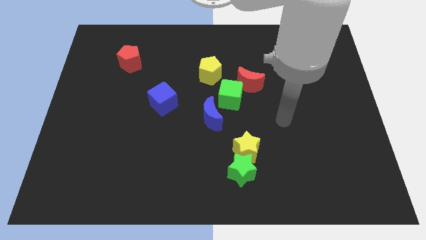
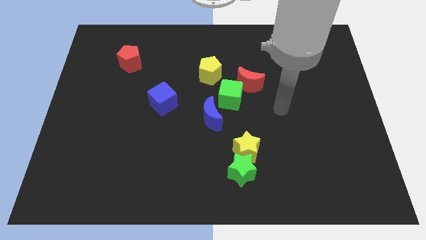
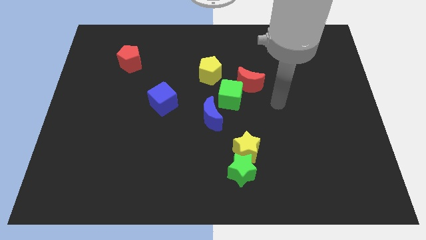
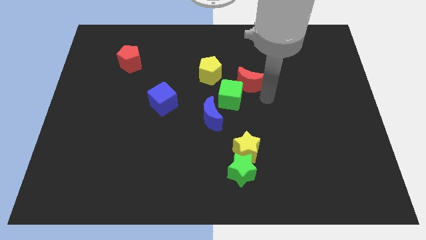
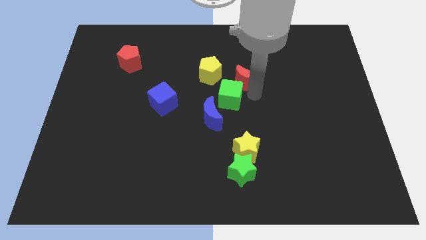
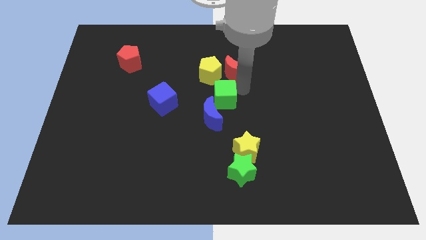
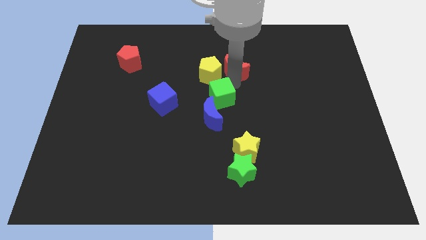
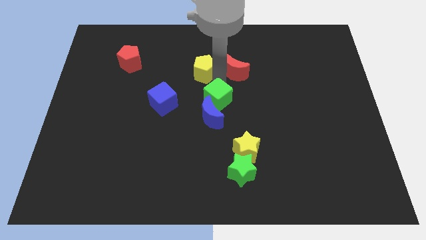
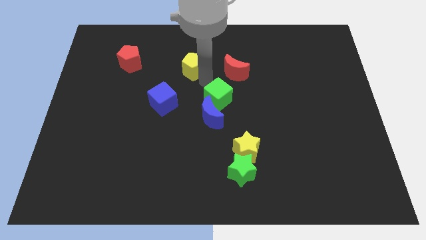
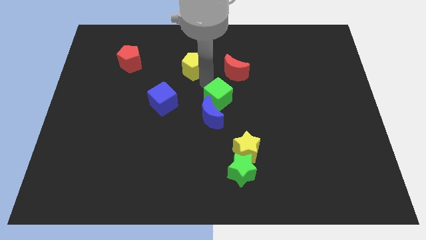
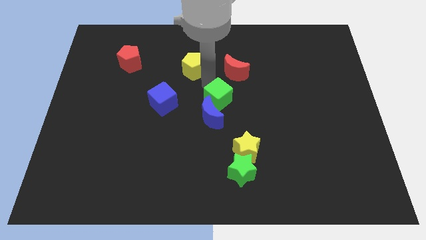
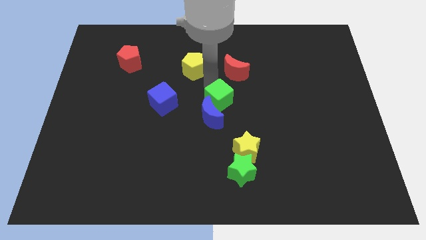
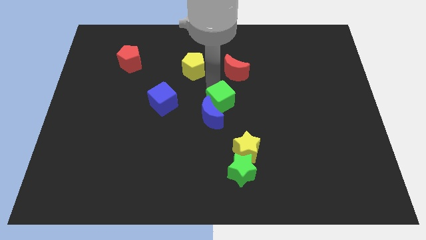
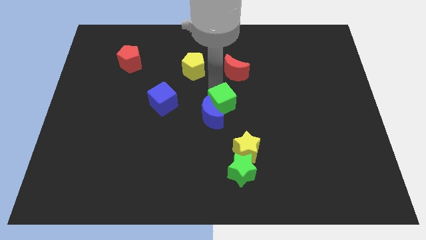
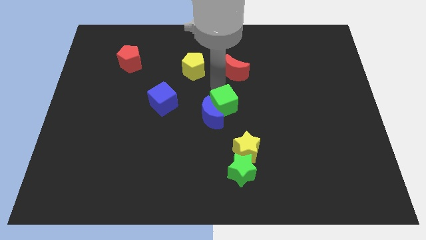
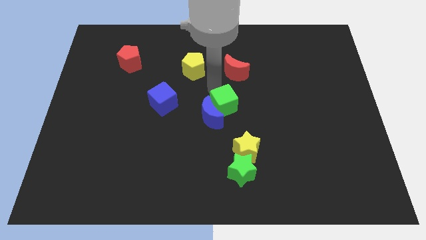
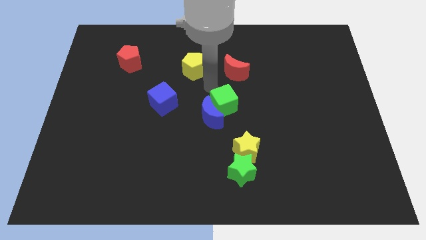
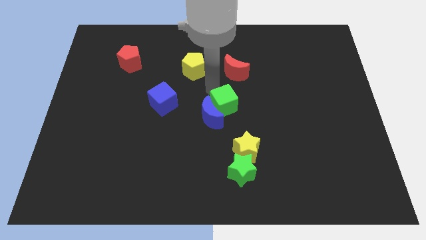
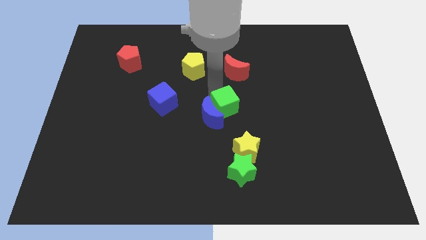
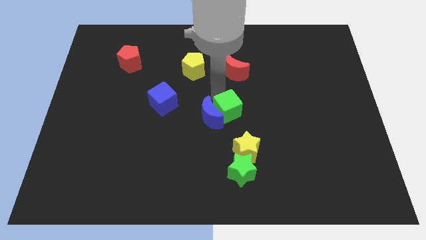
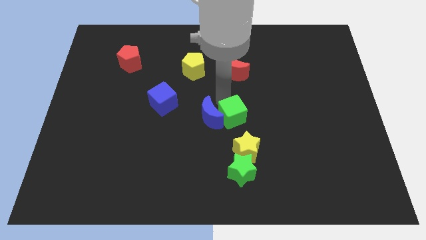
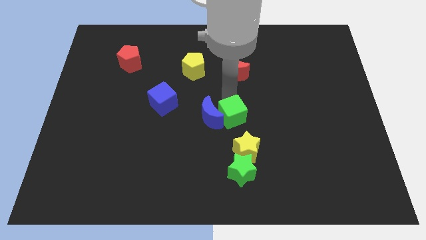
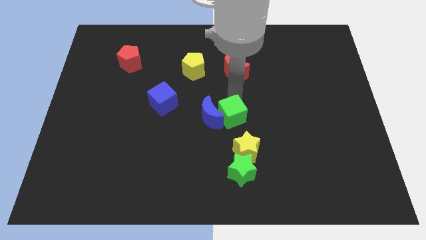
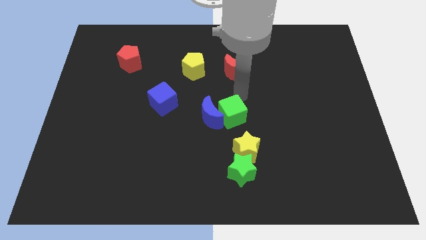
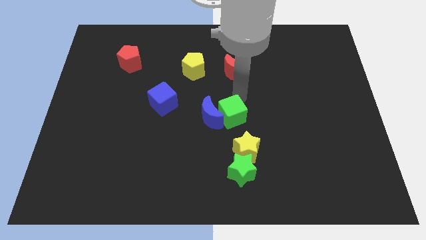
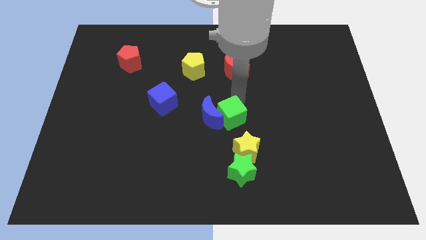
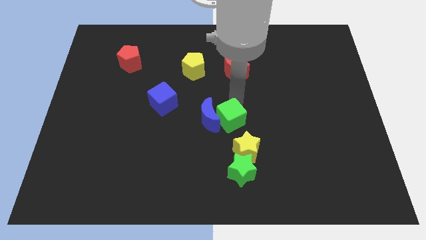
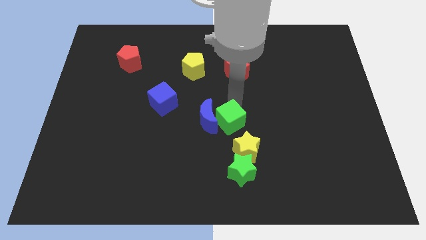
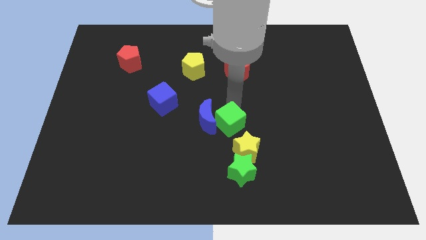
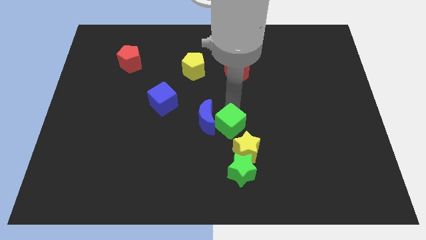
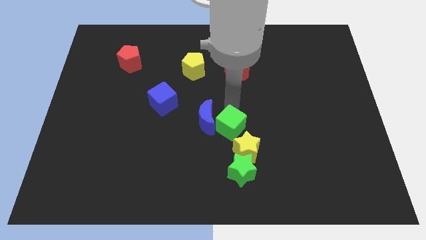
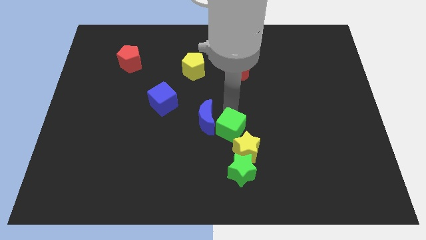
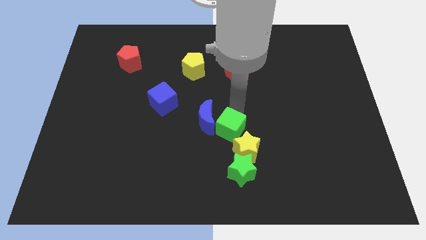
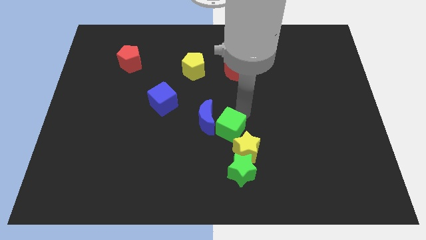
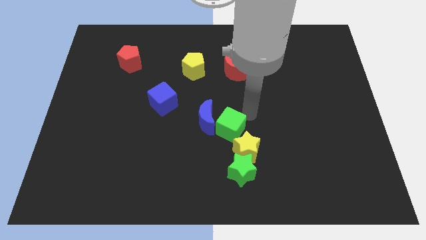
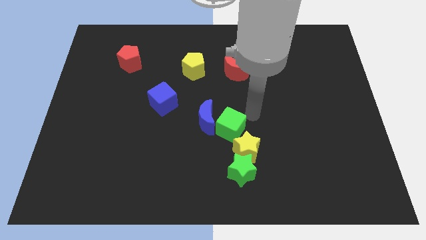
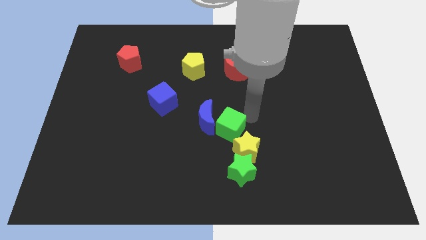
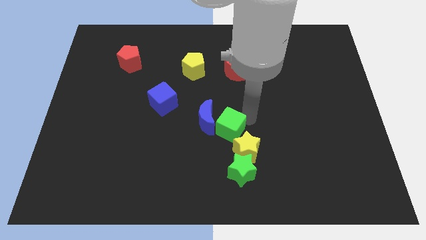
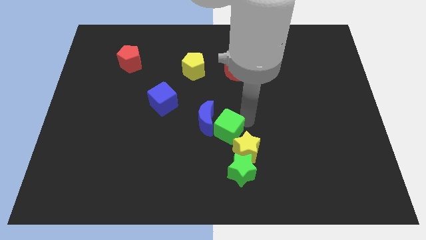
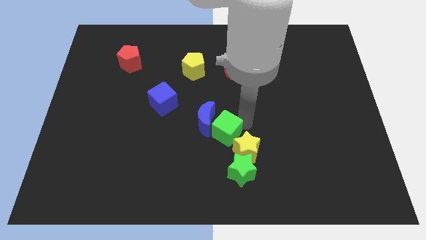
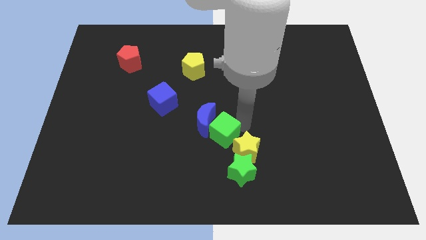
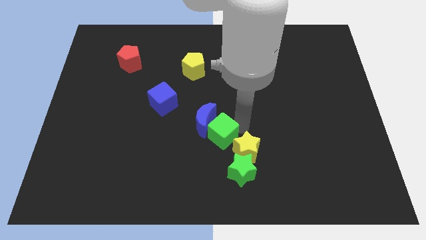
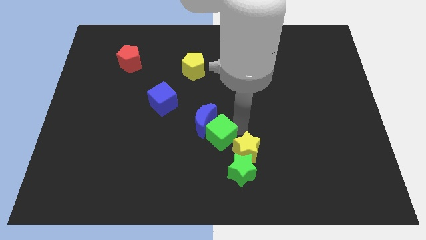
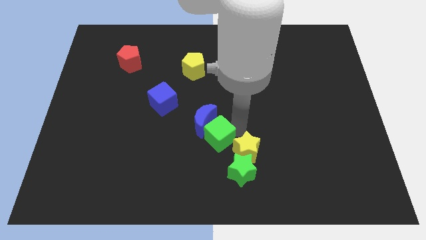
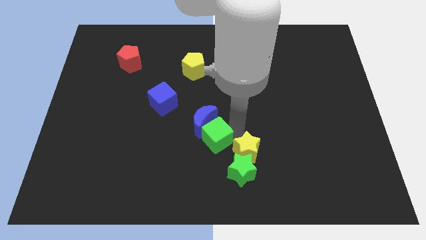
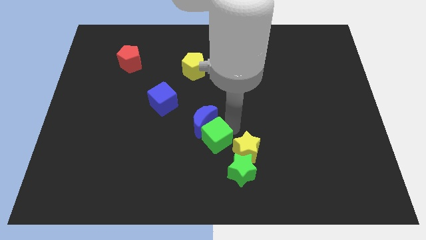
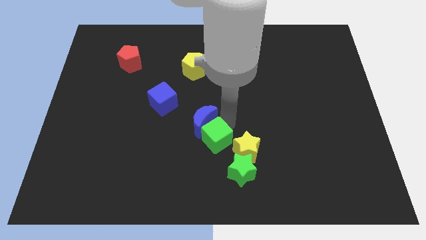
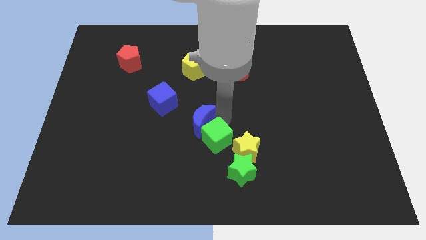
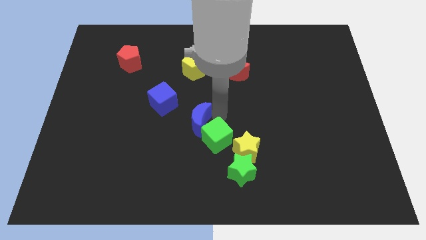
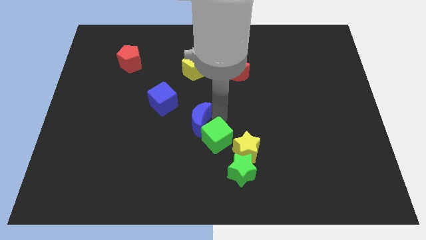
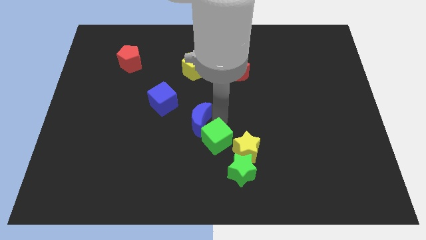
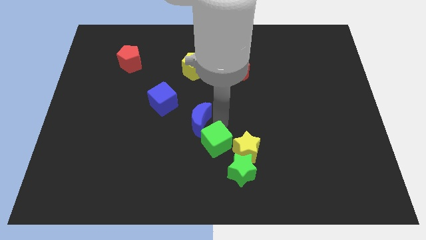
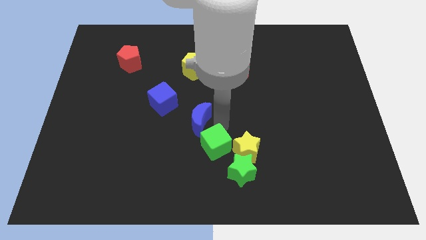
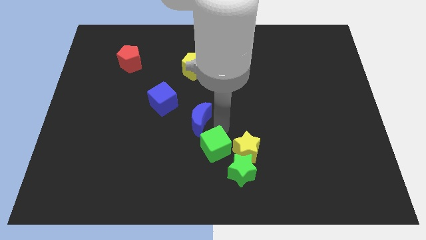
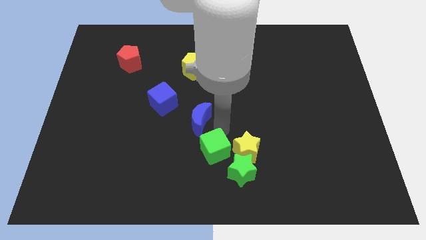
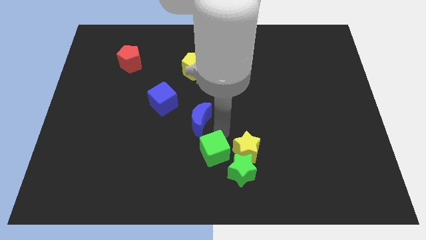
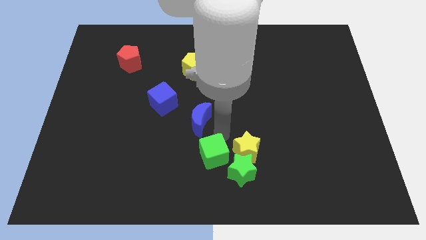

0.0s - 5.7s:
slide the green cube to the bottom side

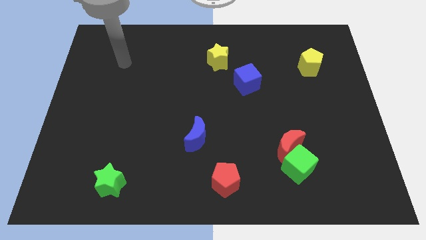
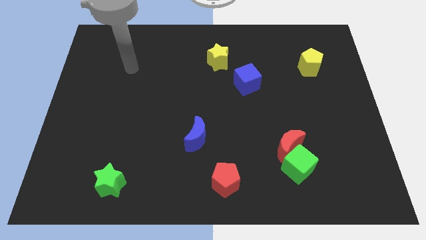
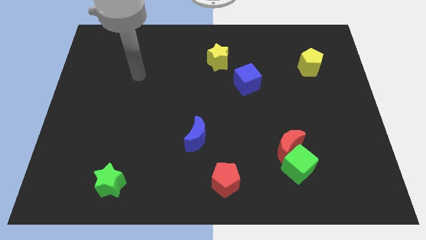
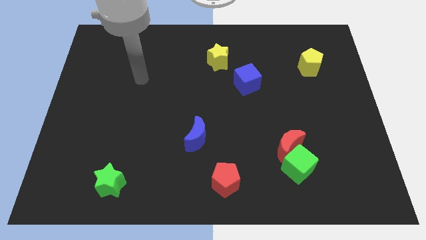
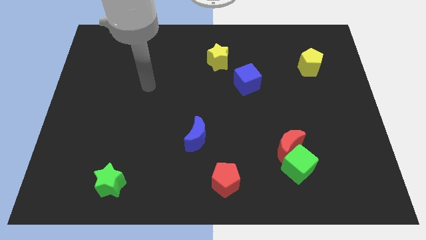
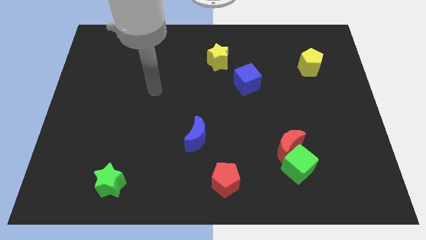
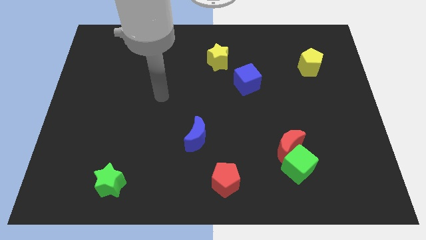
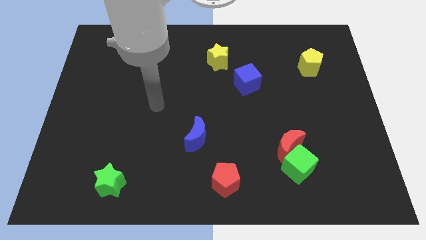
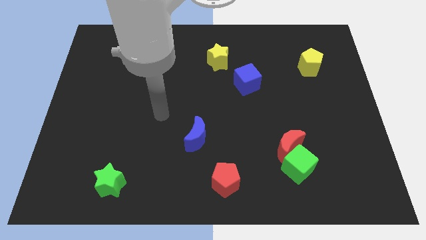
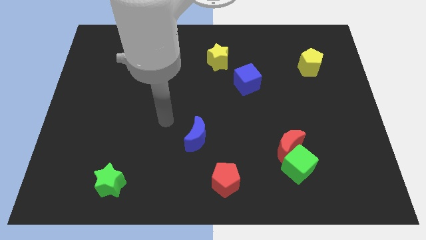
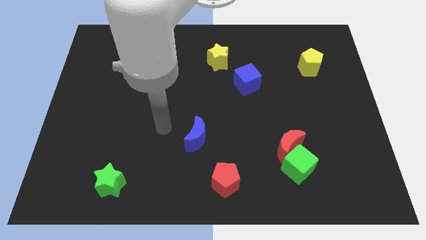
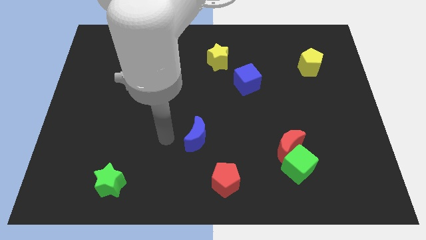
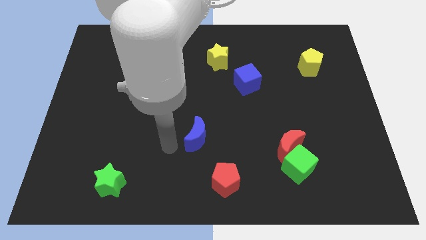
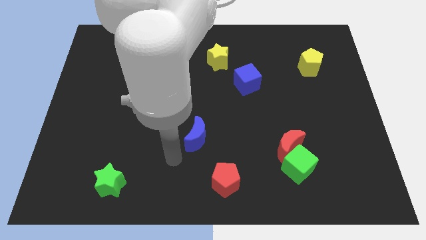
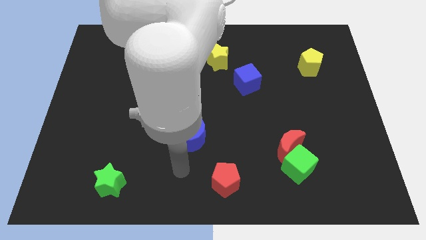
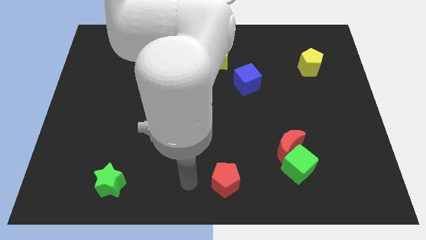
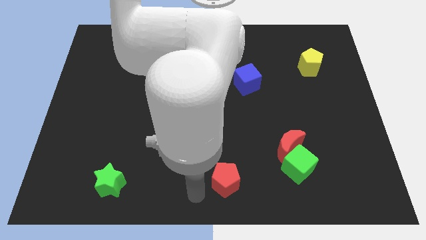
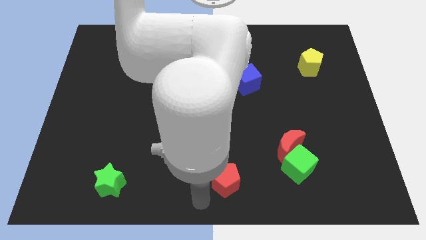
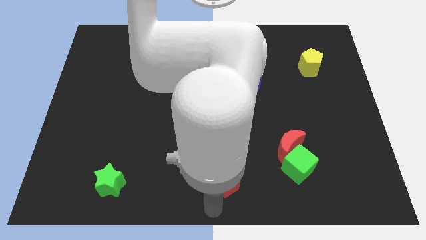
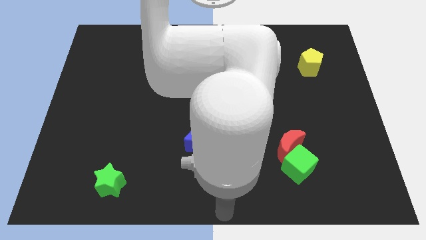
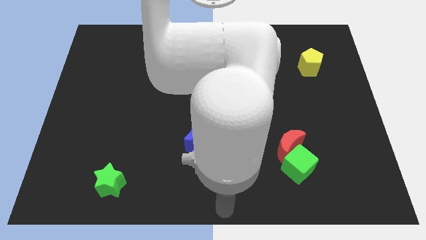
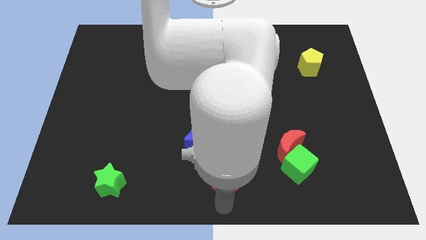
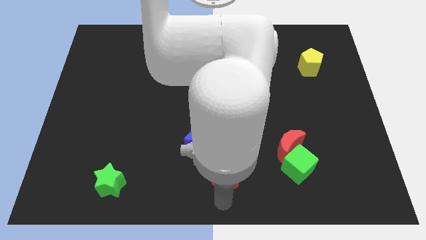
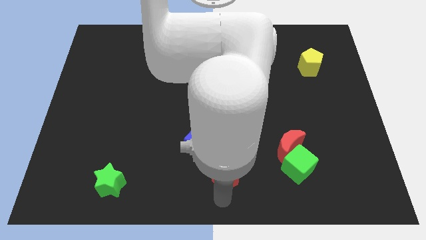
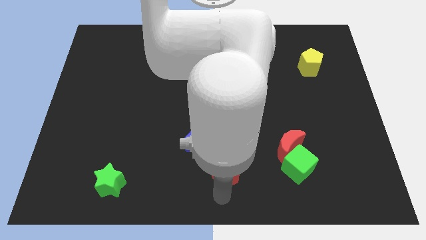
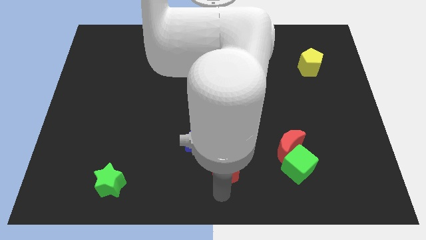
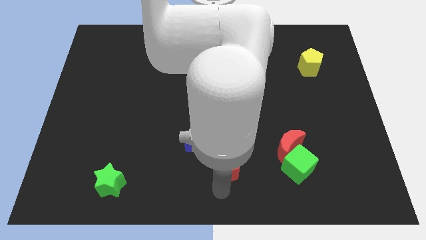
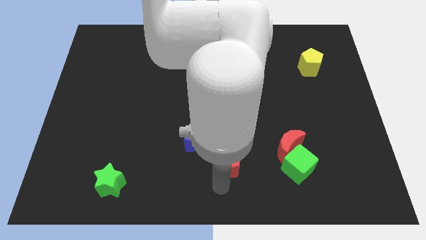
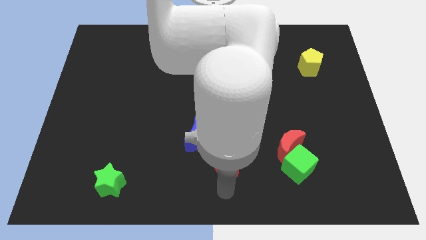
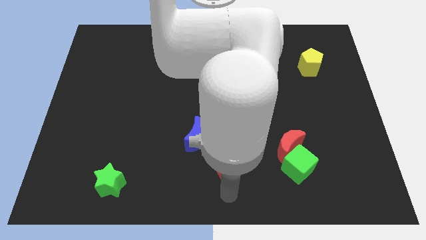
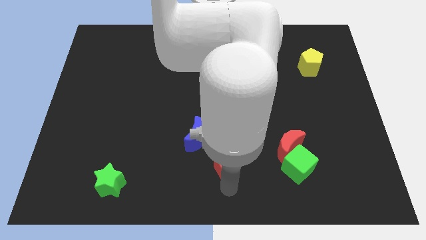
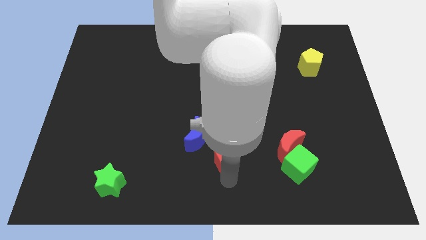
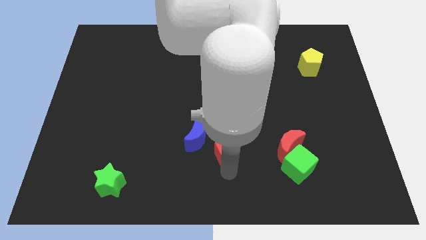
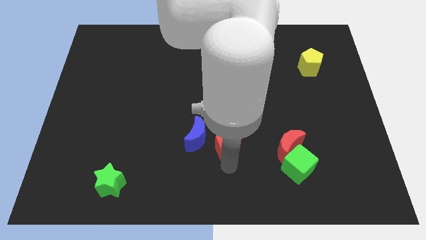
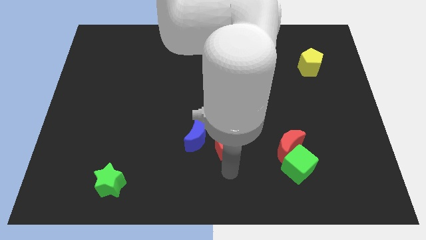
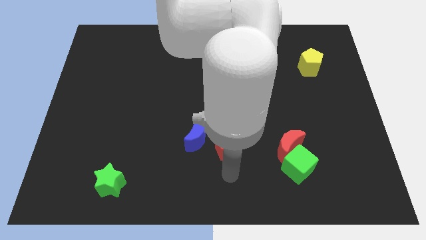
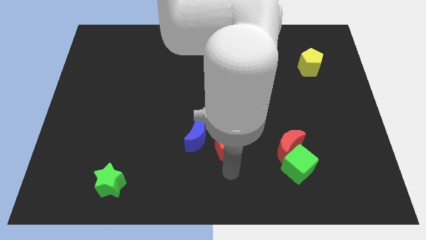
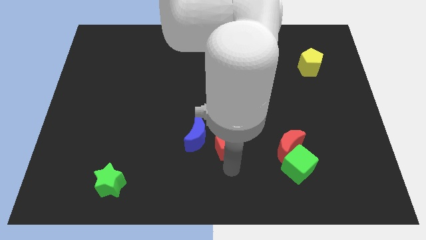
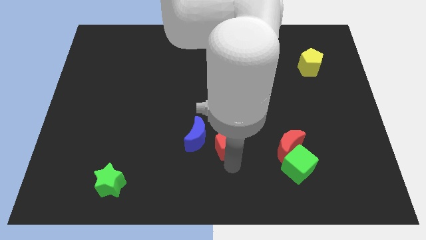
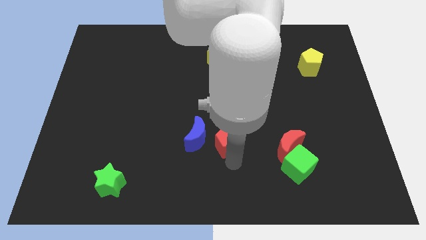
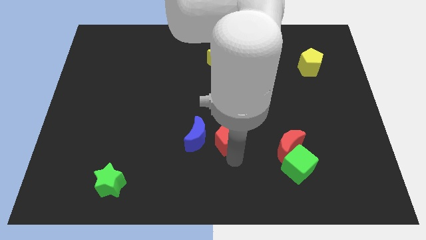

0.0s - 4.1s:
move the red pentagon to the center
